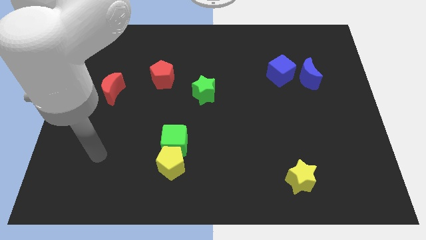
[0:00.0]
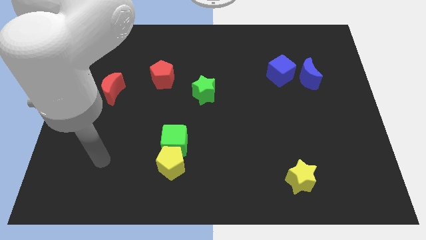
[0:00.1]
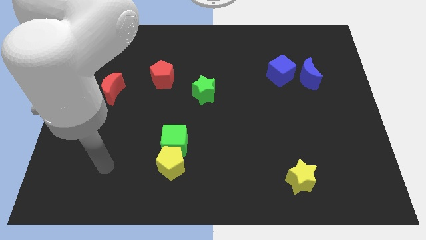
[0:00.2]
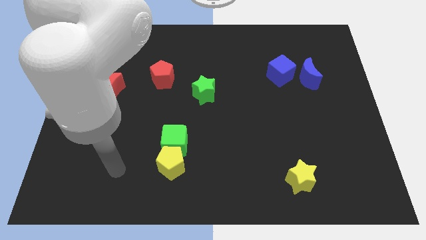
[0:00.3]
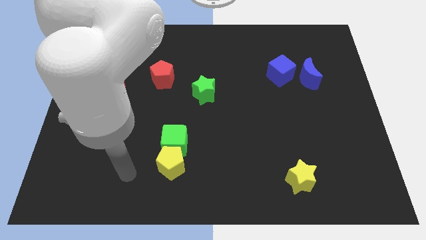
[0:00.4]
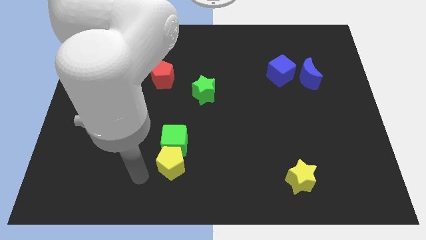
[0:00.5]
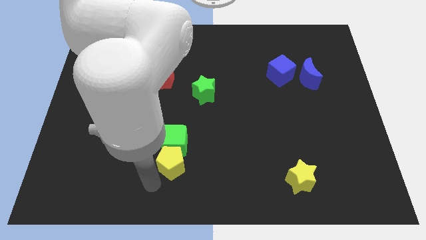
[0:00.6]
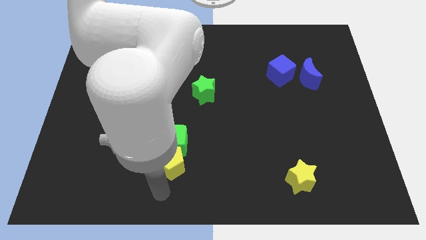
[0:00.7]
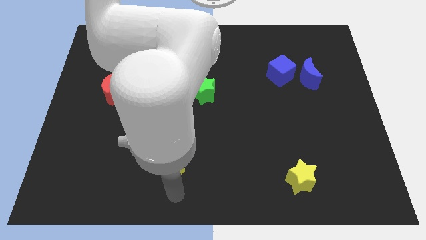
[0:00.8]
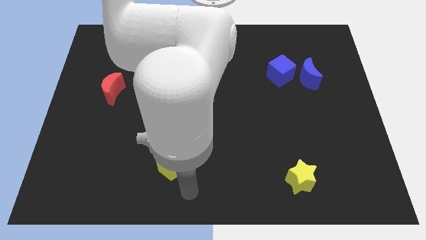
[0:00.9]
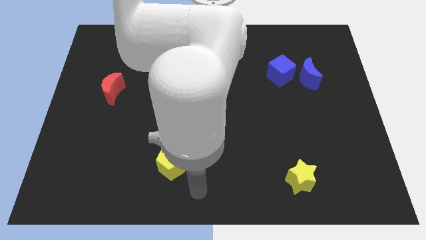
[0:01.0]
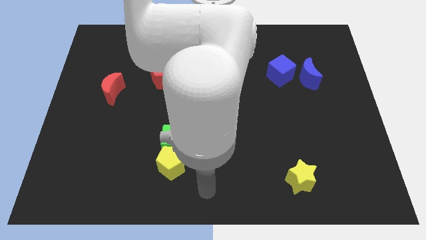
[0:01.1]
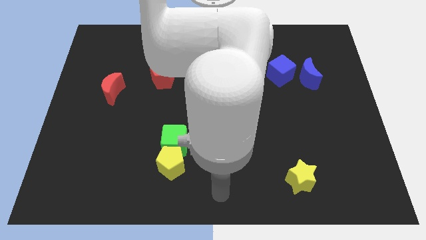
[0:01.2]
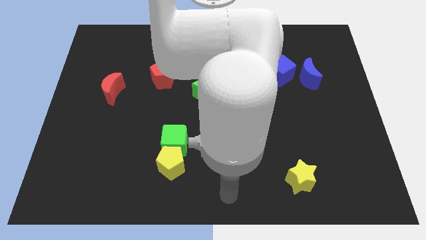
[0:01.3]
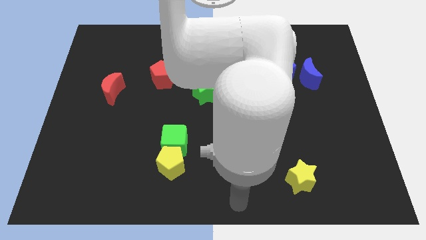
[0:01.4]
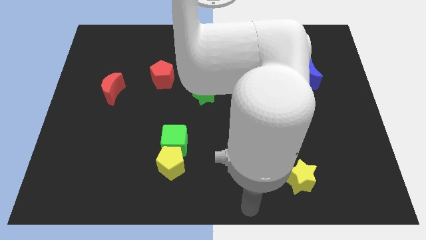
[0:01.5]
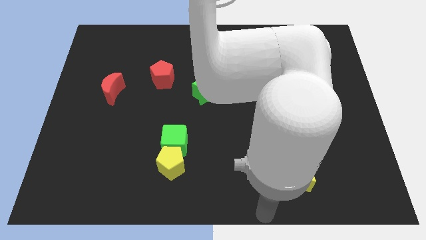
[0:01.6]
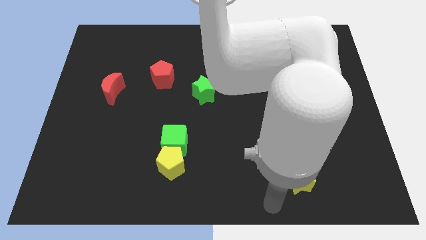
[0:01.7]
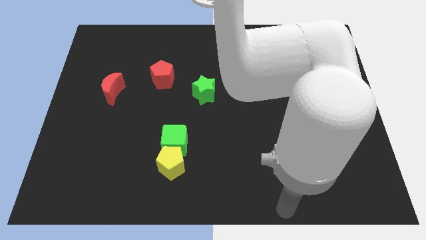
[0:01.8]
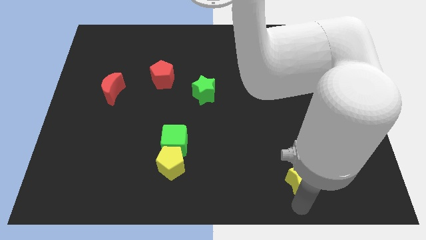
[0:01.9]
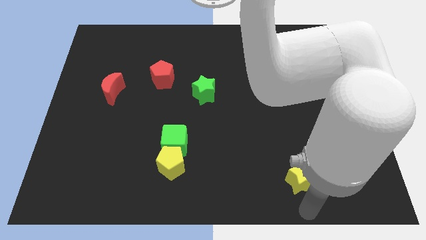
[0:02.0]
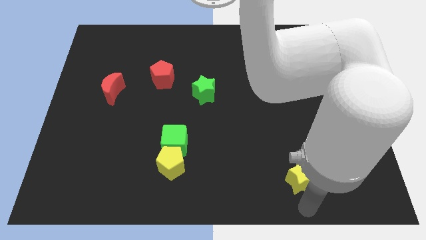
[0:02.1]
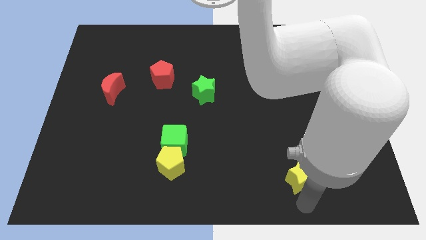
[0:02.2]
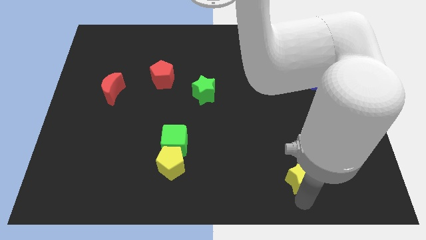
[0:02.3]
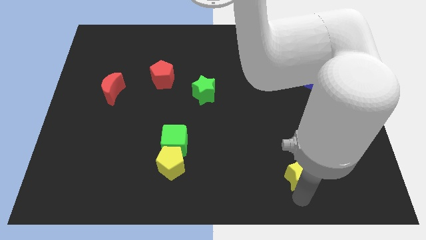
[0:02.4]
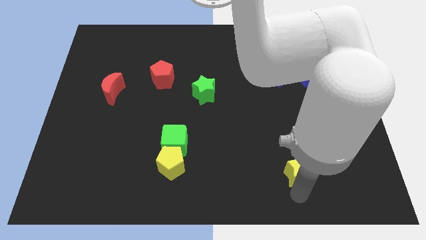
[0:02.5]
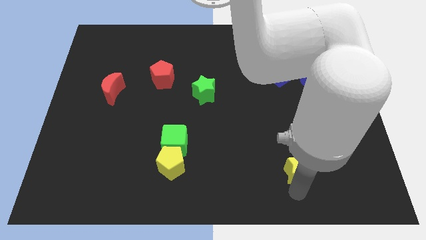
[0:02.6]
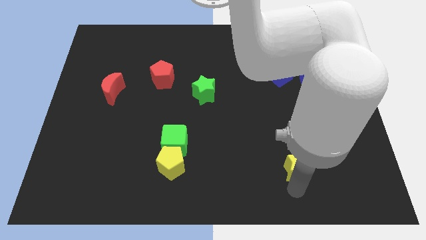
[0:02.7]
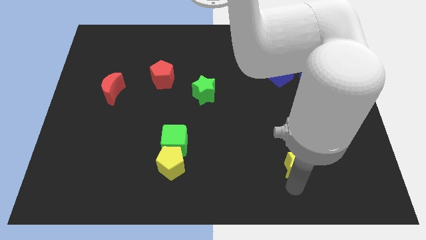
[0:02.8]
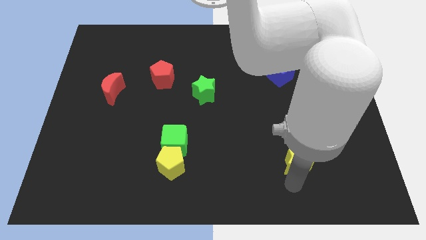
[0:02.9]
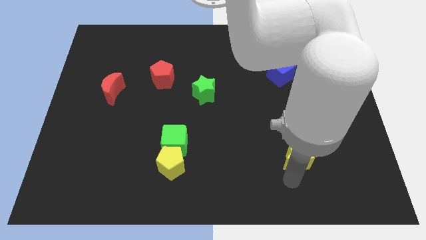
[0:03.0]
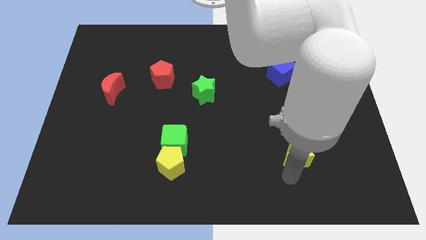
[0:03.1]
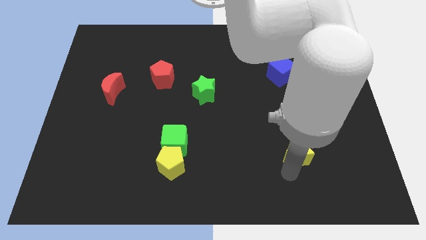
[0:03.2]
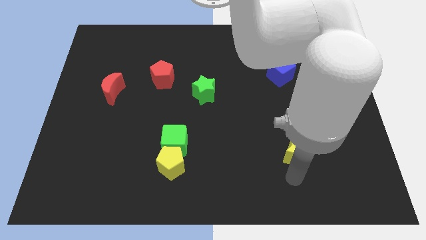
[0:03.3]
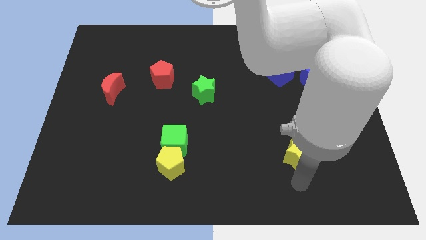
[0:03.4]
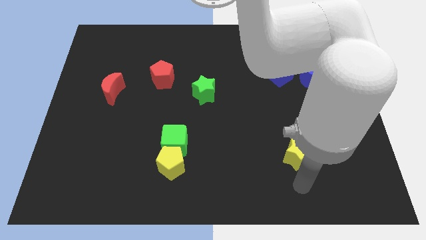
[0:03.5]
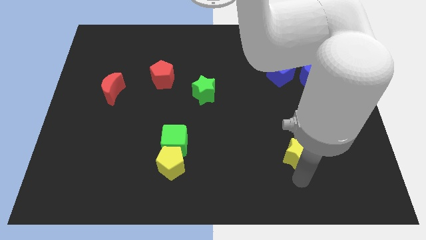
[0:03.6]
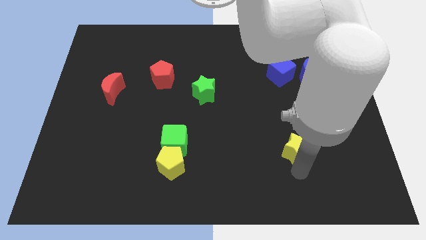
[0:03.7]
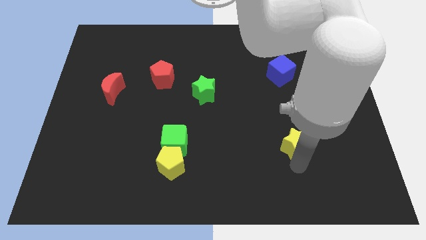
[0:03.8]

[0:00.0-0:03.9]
move the yellow star up somewhat

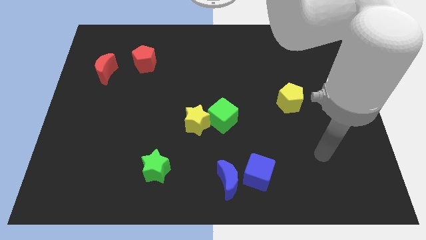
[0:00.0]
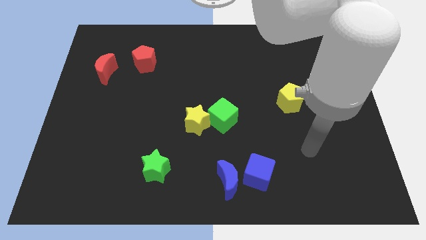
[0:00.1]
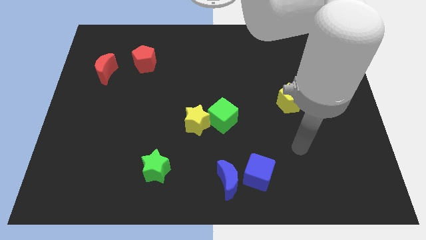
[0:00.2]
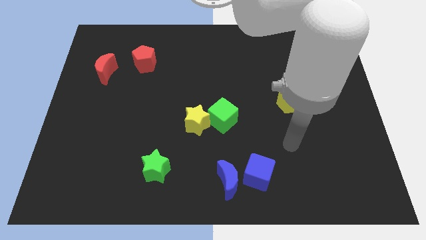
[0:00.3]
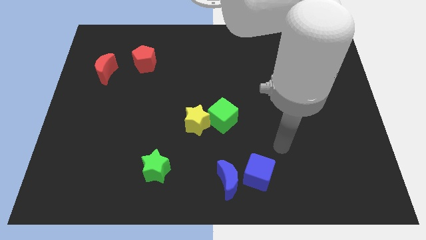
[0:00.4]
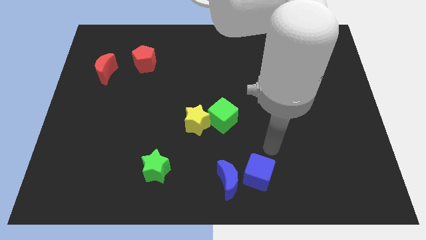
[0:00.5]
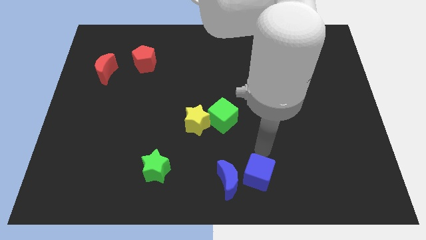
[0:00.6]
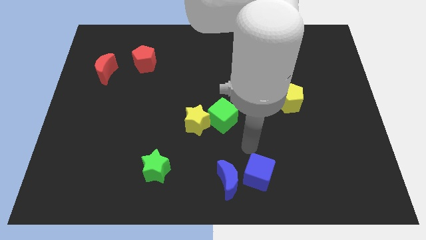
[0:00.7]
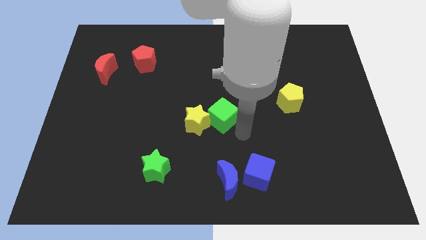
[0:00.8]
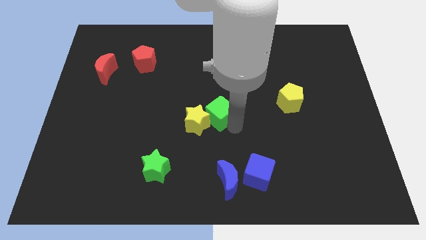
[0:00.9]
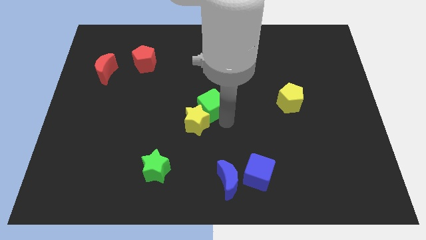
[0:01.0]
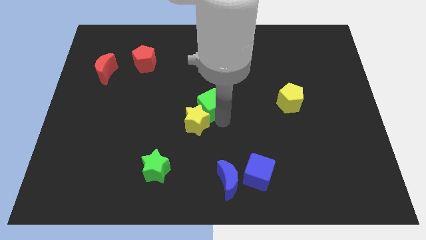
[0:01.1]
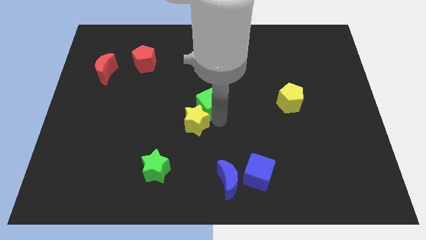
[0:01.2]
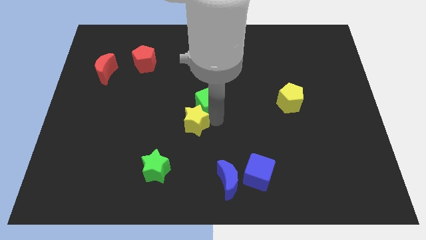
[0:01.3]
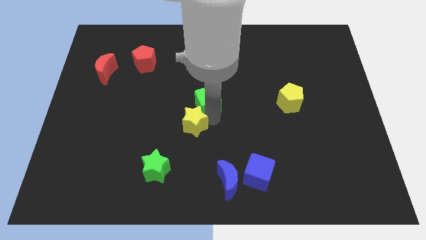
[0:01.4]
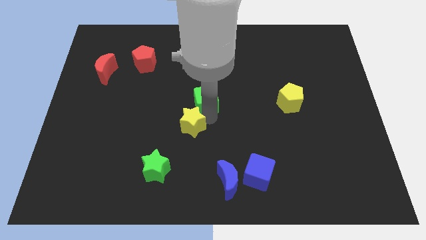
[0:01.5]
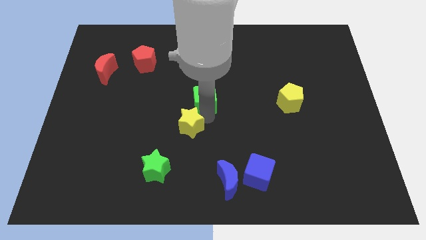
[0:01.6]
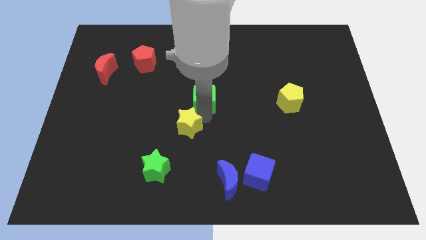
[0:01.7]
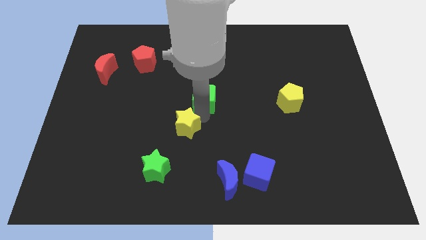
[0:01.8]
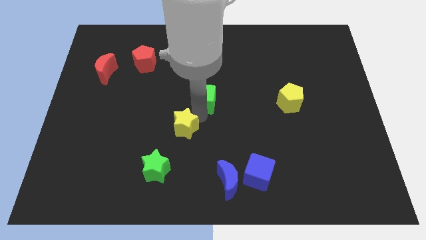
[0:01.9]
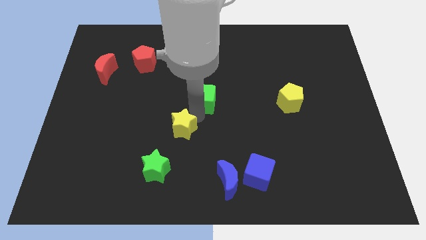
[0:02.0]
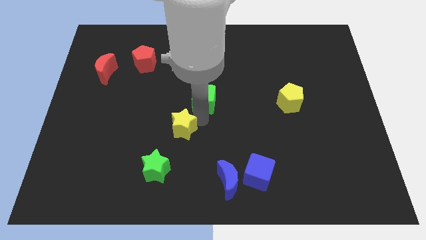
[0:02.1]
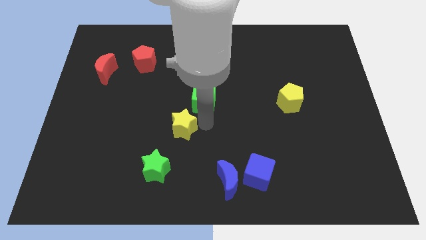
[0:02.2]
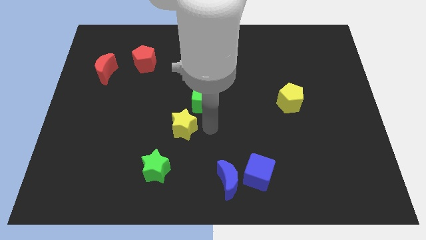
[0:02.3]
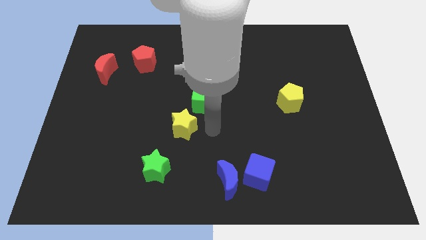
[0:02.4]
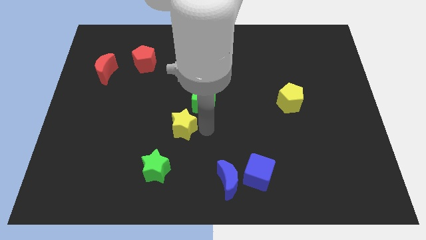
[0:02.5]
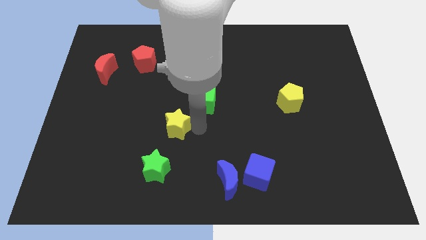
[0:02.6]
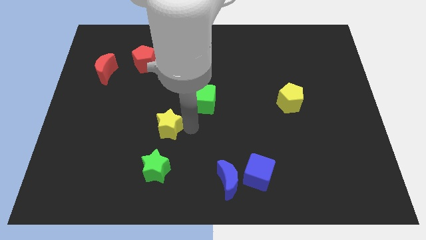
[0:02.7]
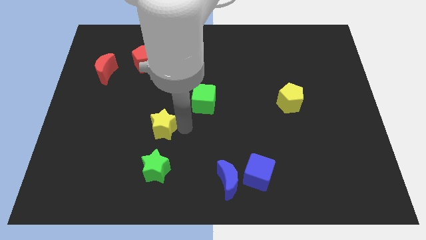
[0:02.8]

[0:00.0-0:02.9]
slide the yellow star a bit to the left

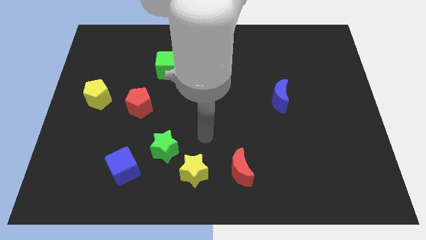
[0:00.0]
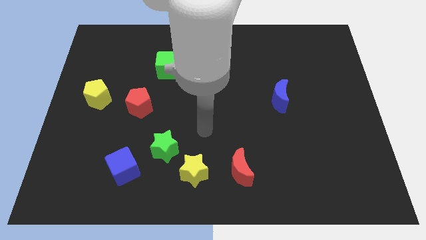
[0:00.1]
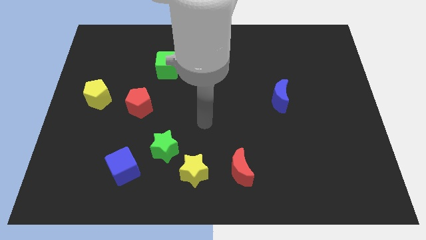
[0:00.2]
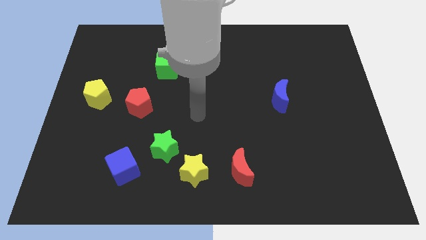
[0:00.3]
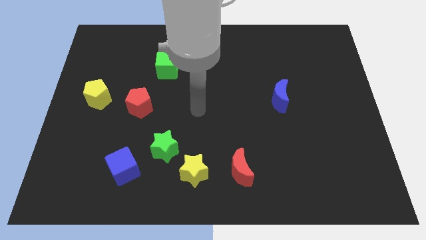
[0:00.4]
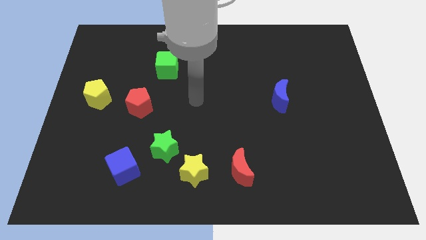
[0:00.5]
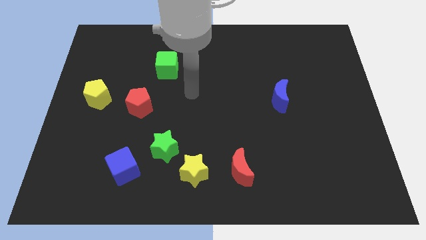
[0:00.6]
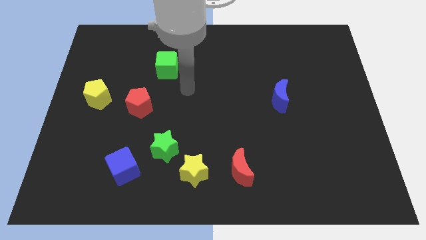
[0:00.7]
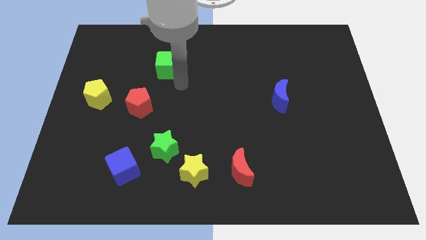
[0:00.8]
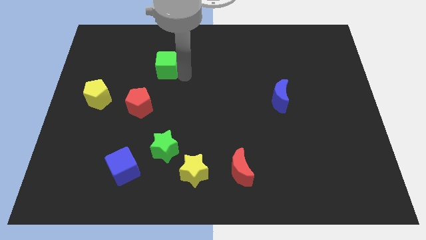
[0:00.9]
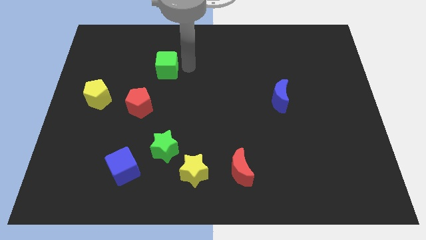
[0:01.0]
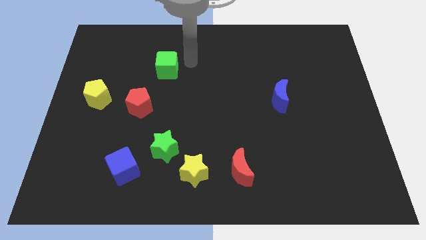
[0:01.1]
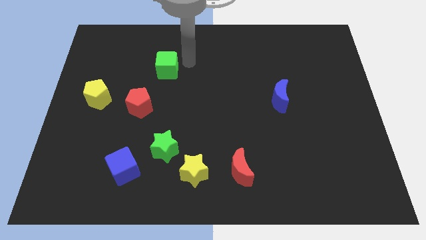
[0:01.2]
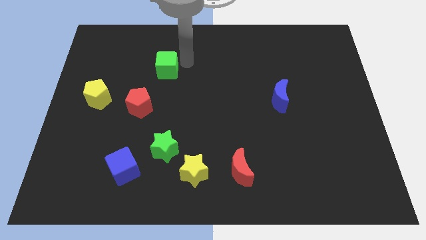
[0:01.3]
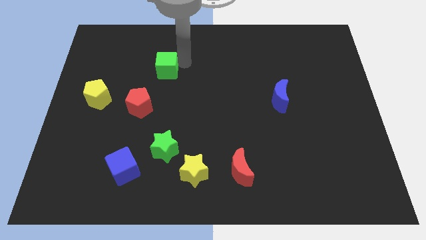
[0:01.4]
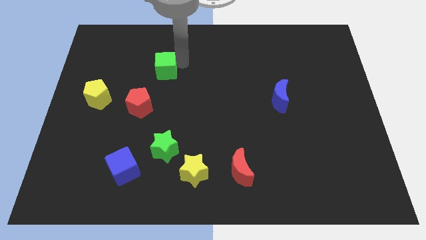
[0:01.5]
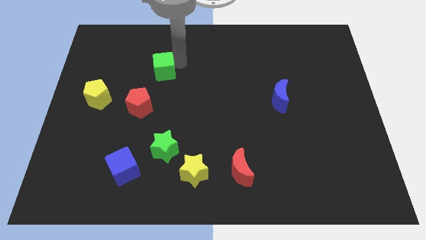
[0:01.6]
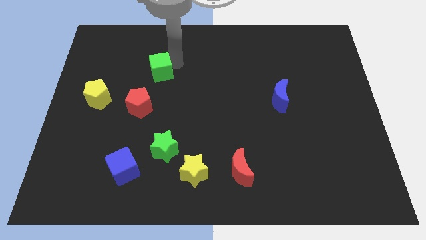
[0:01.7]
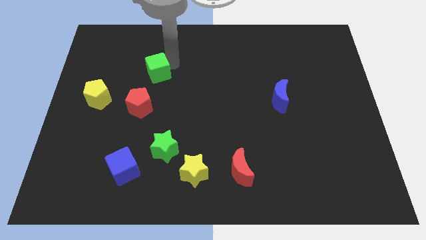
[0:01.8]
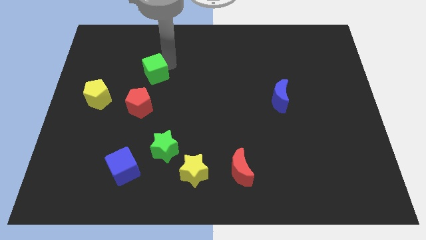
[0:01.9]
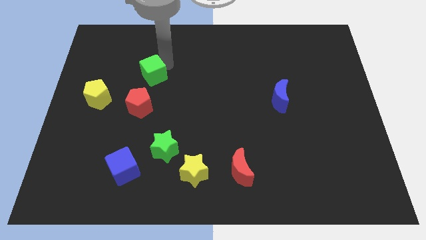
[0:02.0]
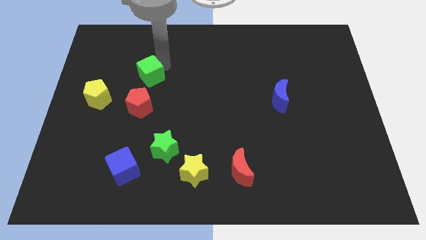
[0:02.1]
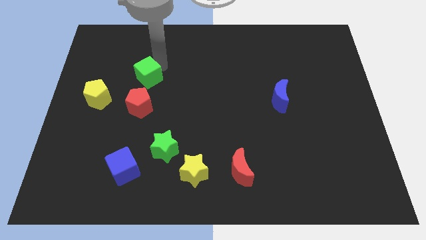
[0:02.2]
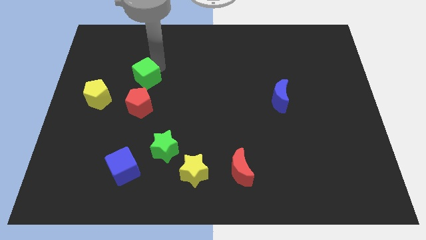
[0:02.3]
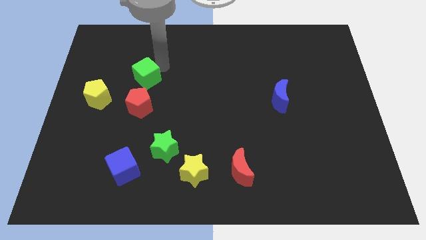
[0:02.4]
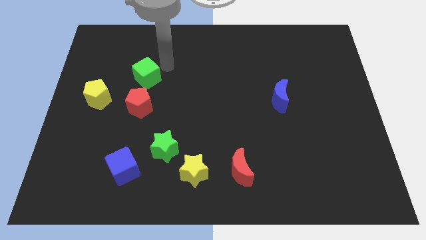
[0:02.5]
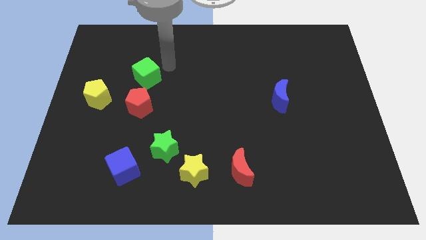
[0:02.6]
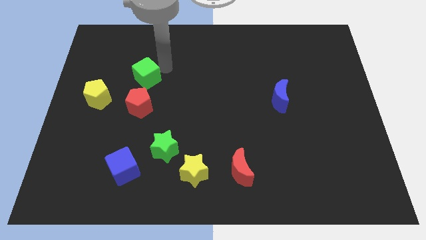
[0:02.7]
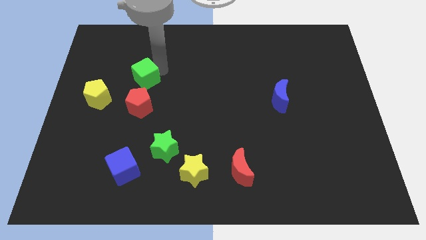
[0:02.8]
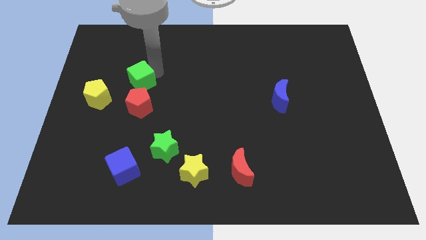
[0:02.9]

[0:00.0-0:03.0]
push the green cube down and to the left a little bit
